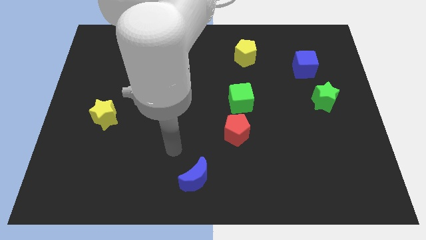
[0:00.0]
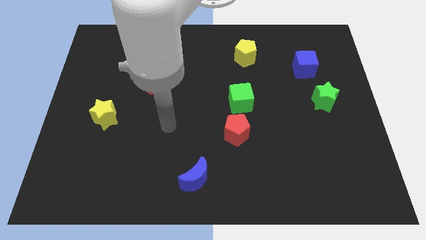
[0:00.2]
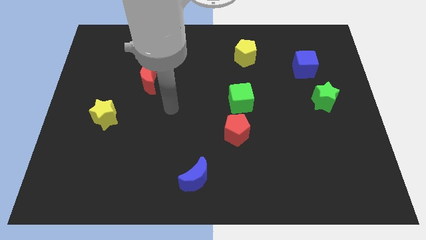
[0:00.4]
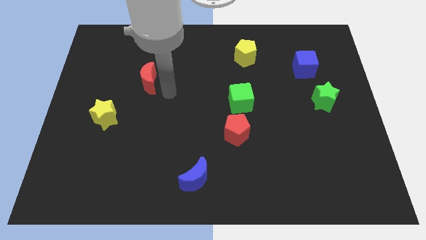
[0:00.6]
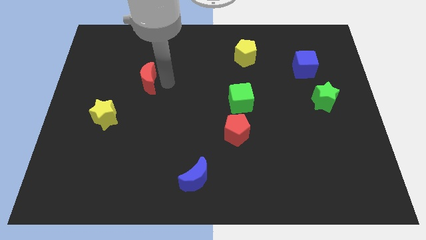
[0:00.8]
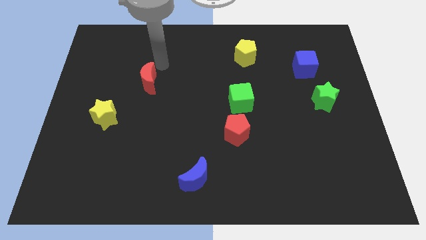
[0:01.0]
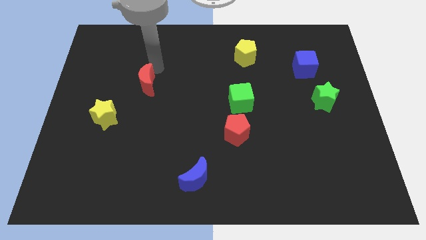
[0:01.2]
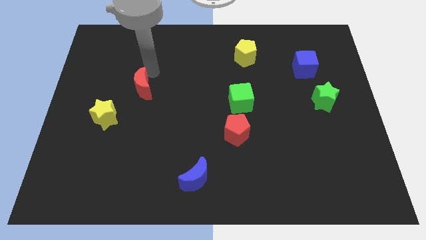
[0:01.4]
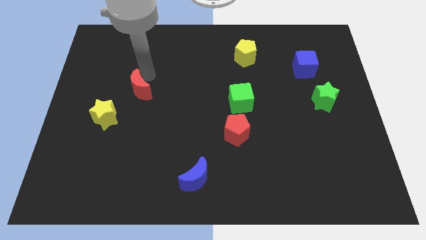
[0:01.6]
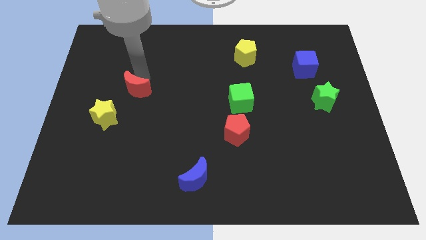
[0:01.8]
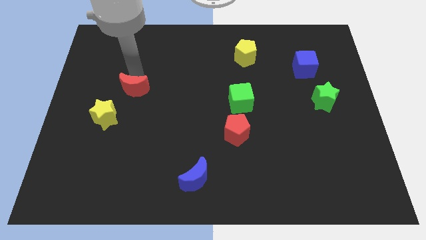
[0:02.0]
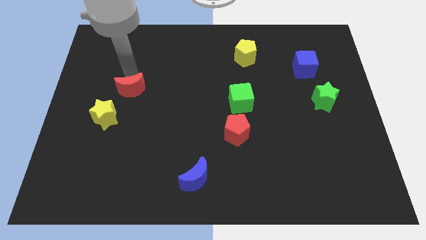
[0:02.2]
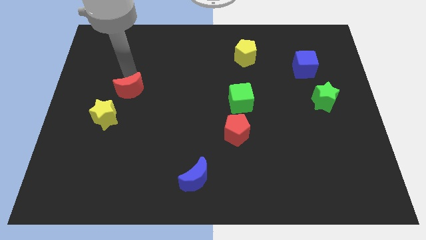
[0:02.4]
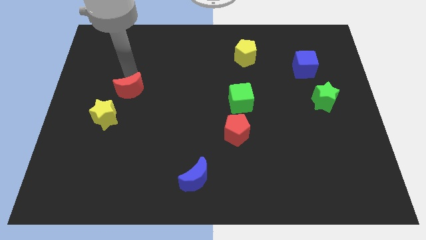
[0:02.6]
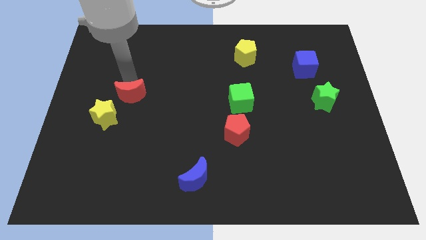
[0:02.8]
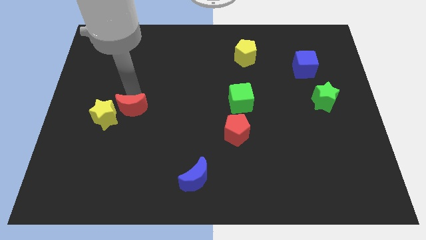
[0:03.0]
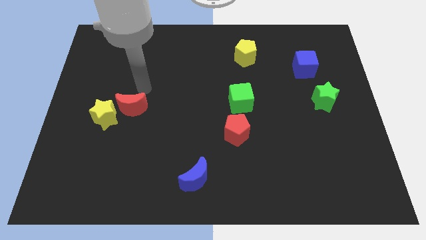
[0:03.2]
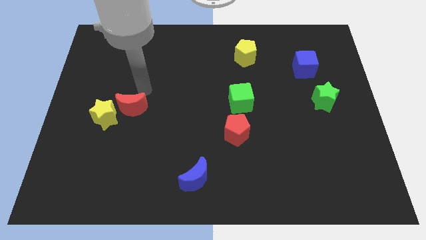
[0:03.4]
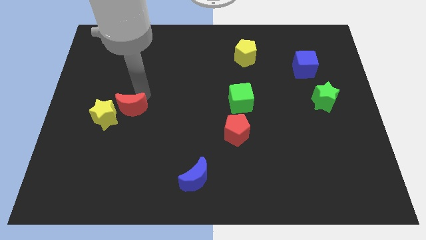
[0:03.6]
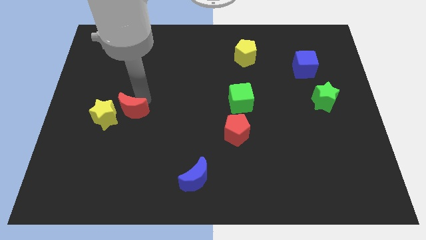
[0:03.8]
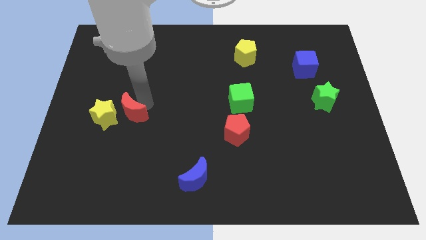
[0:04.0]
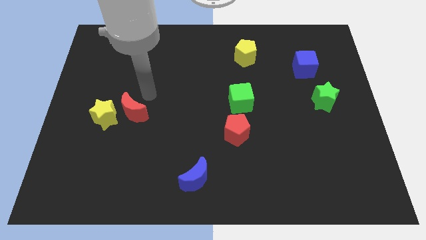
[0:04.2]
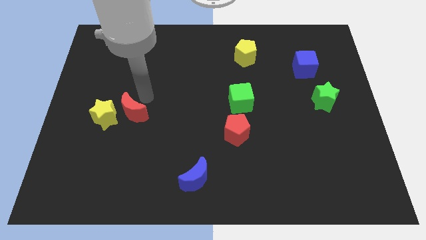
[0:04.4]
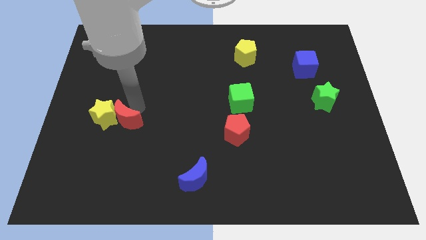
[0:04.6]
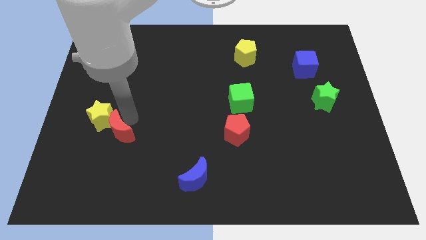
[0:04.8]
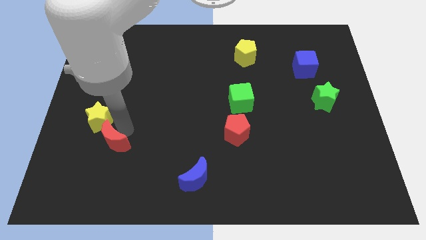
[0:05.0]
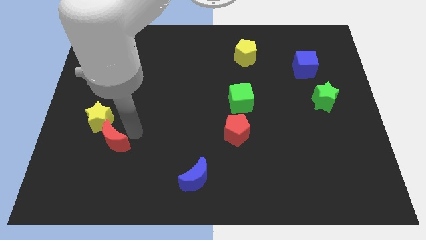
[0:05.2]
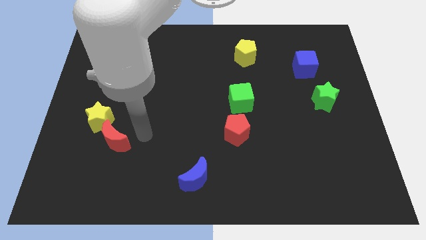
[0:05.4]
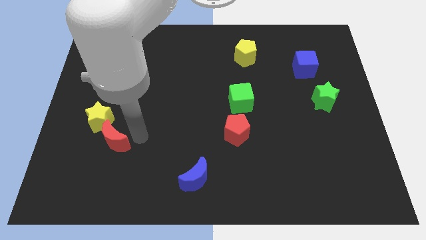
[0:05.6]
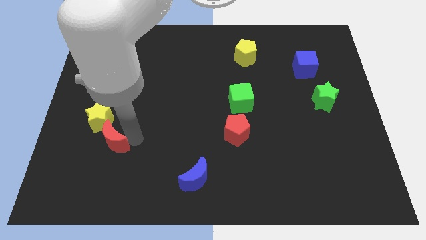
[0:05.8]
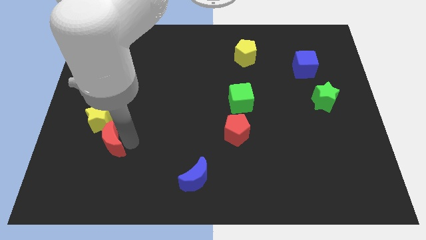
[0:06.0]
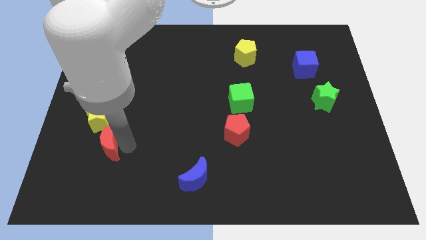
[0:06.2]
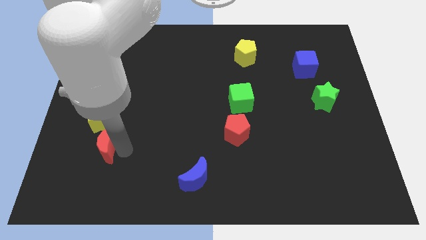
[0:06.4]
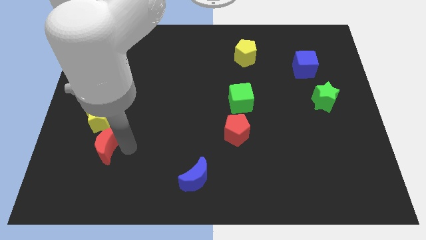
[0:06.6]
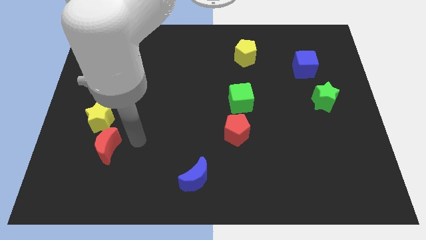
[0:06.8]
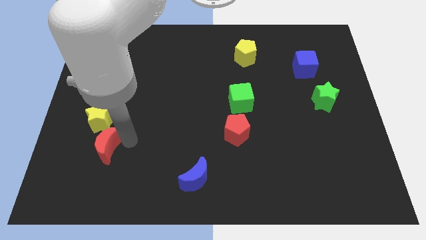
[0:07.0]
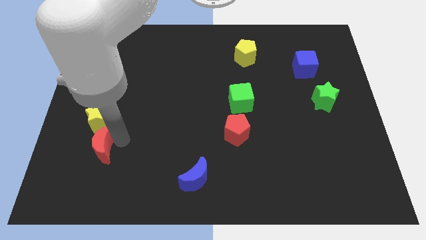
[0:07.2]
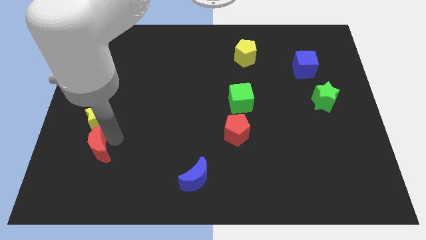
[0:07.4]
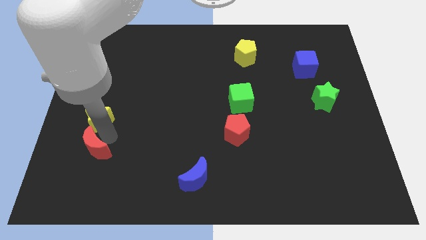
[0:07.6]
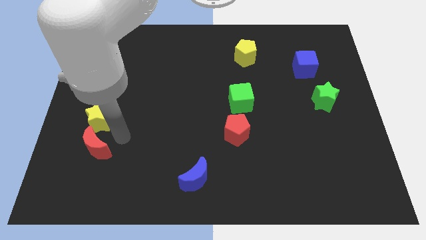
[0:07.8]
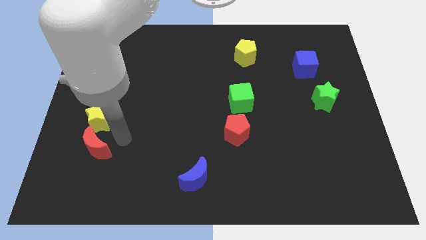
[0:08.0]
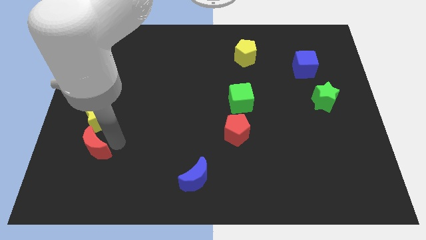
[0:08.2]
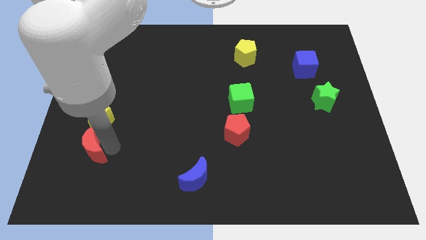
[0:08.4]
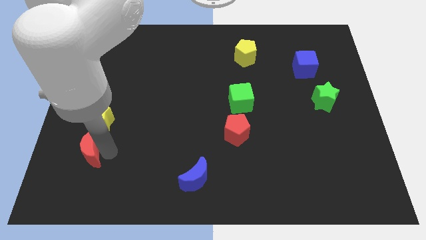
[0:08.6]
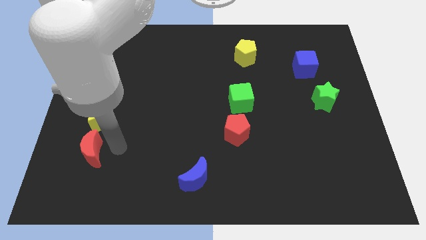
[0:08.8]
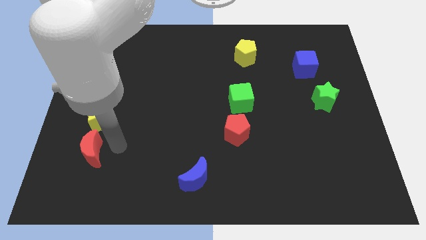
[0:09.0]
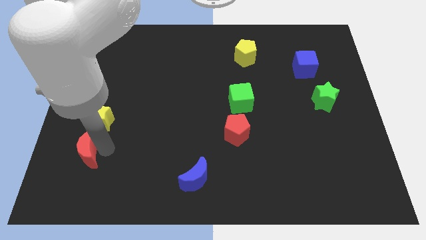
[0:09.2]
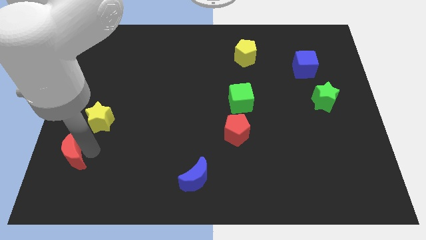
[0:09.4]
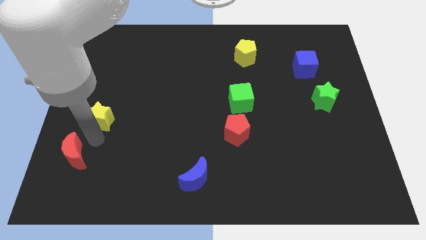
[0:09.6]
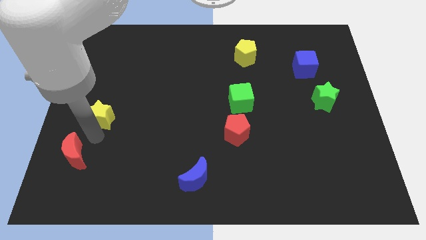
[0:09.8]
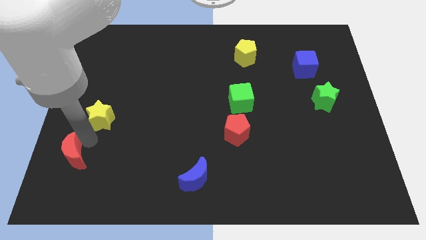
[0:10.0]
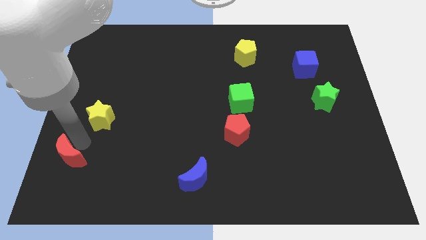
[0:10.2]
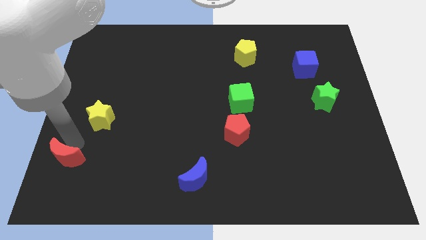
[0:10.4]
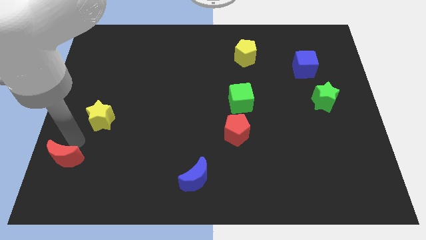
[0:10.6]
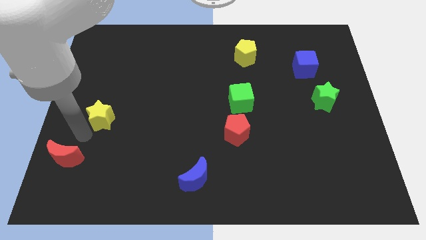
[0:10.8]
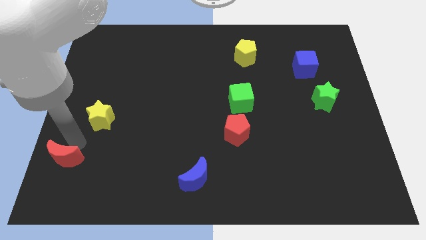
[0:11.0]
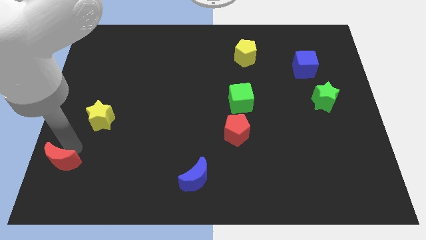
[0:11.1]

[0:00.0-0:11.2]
move the red moon to the bottom left corner

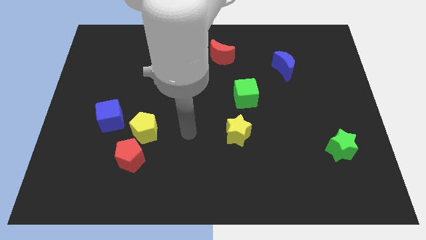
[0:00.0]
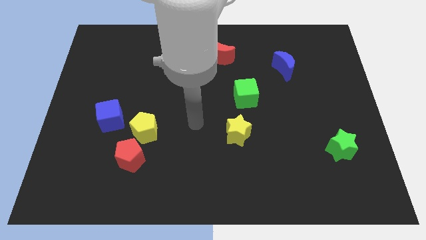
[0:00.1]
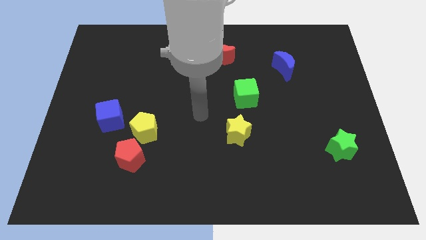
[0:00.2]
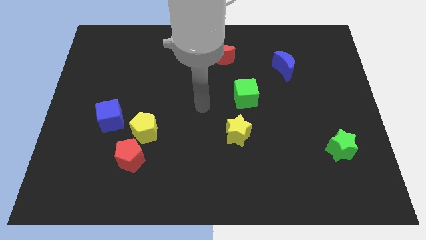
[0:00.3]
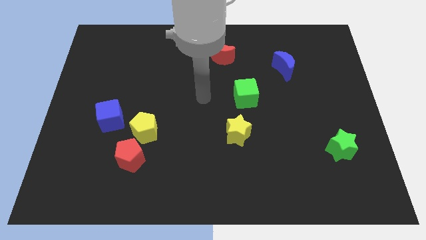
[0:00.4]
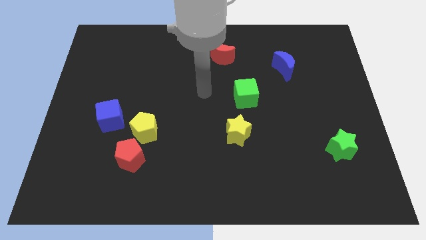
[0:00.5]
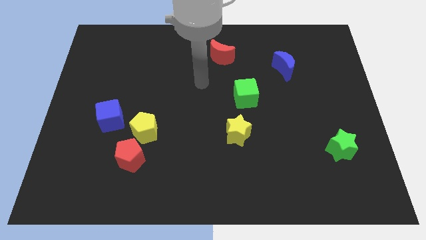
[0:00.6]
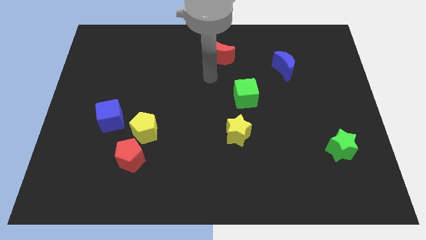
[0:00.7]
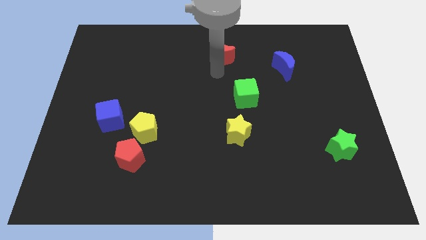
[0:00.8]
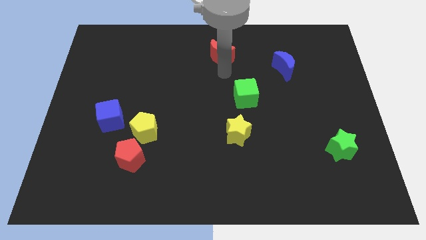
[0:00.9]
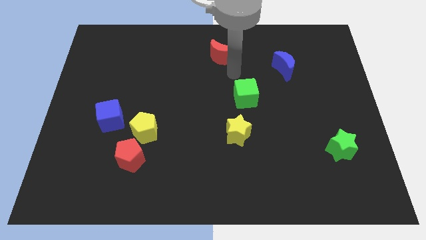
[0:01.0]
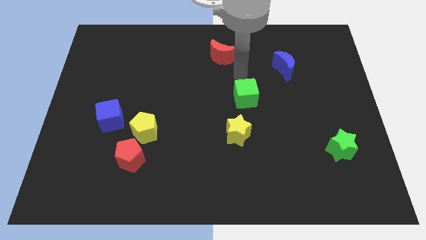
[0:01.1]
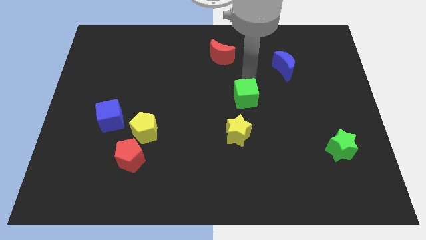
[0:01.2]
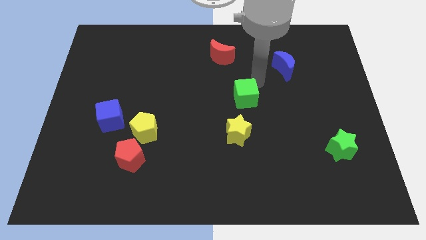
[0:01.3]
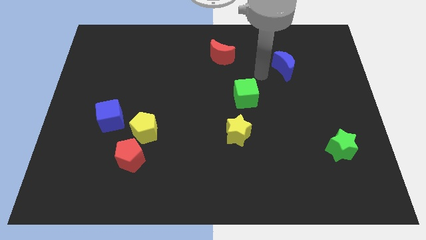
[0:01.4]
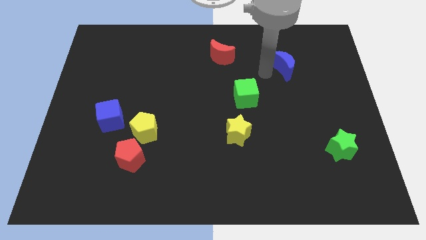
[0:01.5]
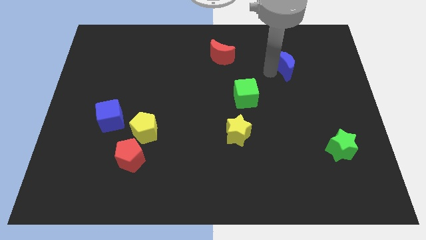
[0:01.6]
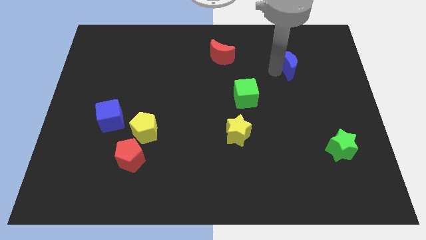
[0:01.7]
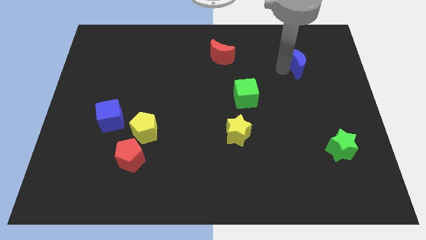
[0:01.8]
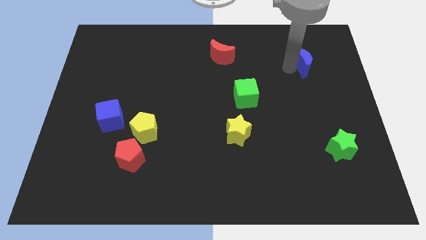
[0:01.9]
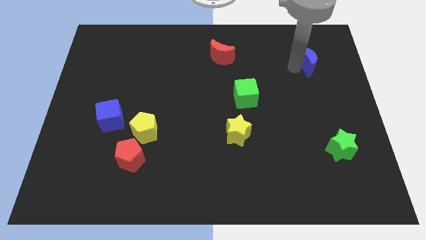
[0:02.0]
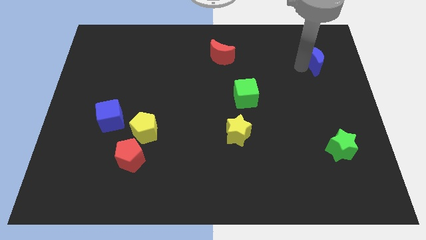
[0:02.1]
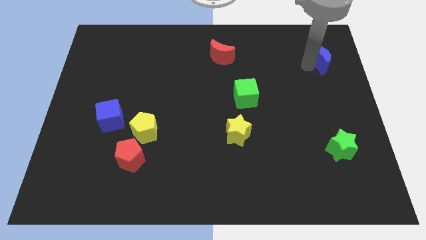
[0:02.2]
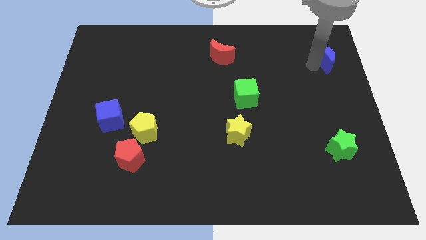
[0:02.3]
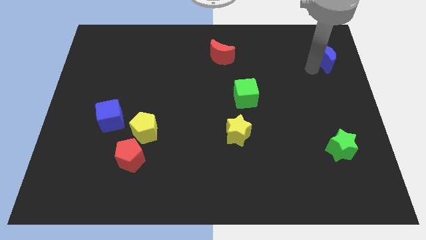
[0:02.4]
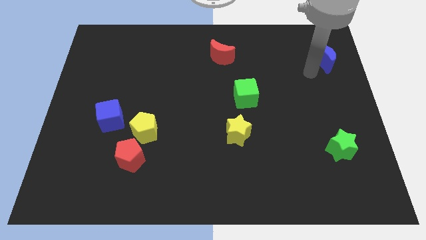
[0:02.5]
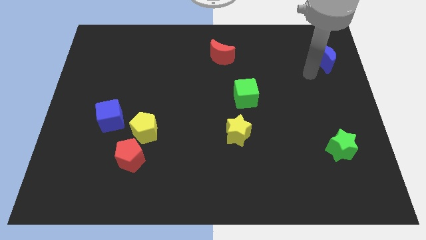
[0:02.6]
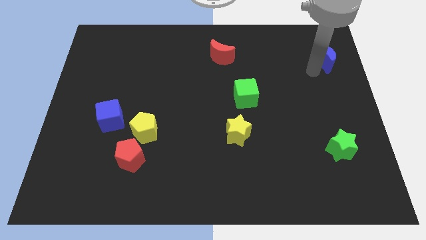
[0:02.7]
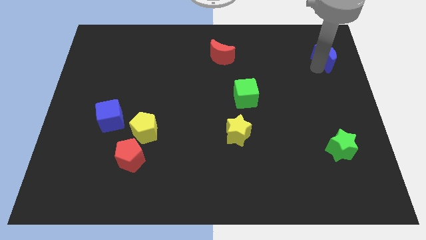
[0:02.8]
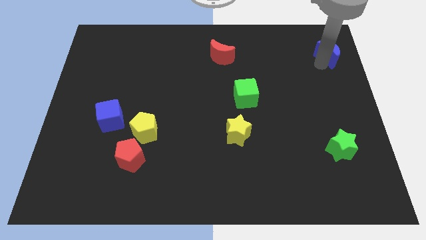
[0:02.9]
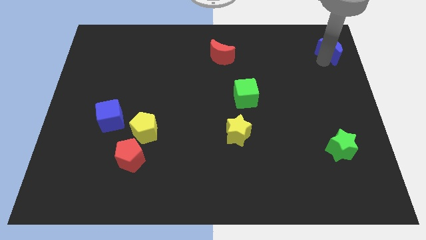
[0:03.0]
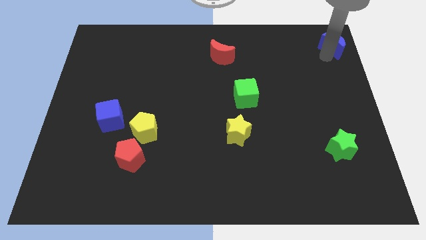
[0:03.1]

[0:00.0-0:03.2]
put the blue moon to the top right corner
